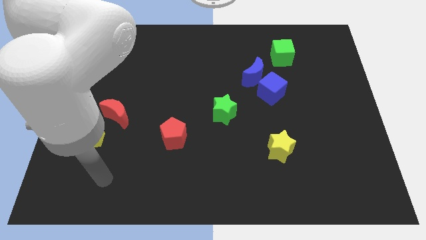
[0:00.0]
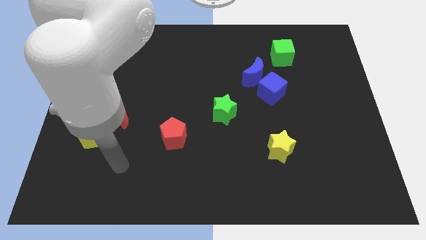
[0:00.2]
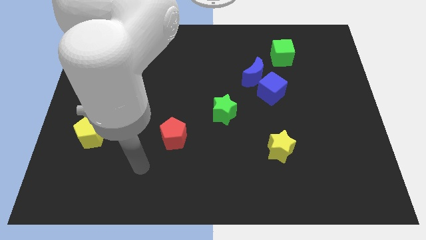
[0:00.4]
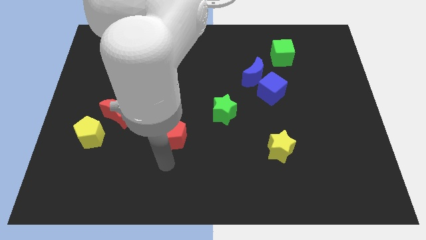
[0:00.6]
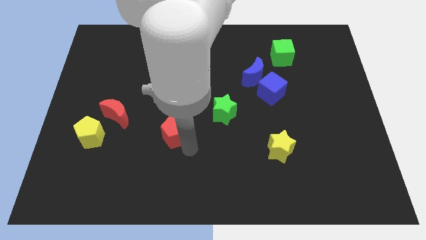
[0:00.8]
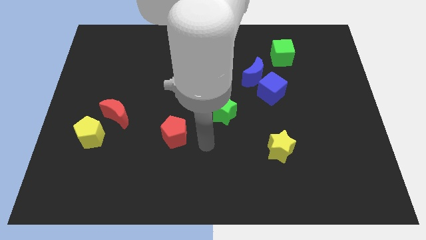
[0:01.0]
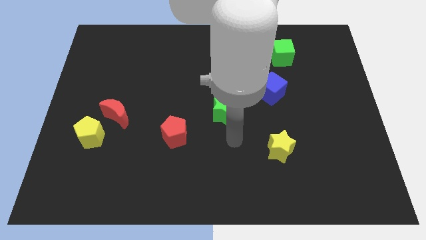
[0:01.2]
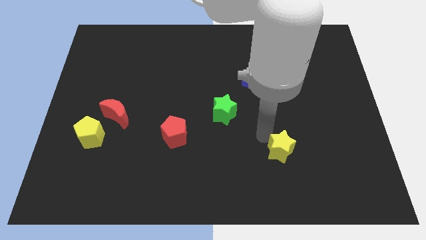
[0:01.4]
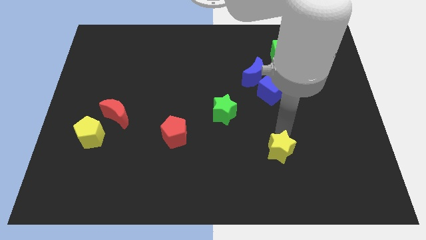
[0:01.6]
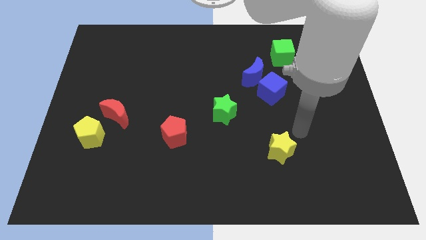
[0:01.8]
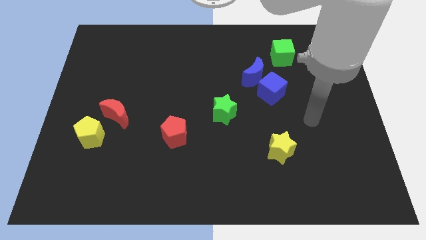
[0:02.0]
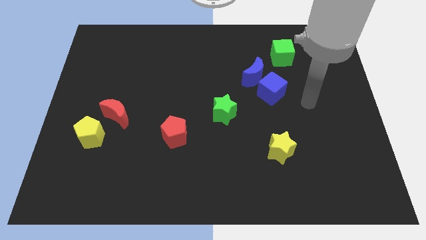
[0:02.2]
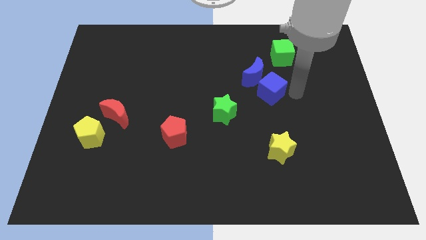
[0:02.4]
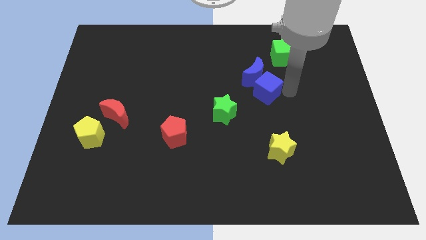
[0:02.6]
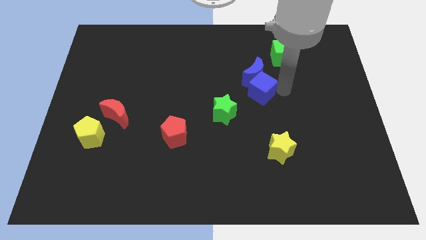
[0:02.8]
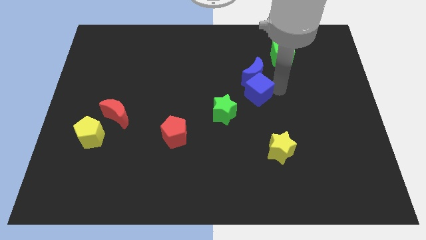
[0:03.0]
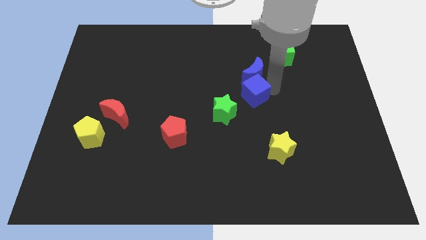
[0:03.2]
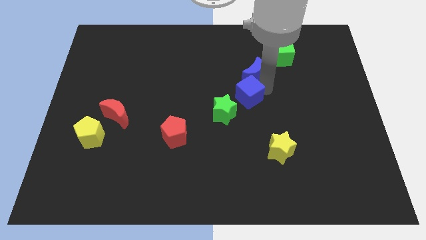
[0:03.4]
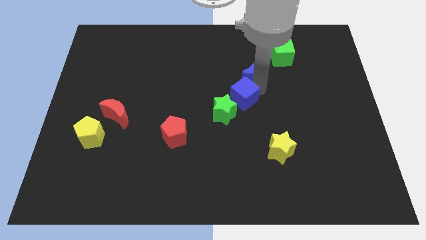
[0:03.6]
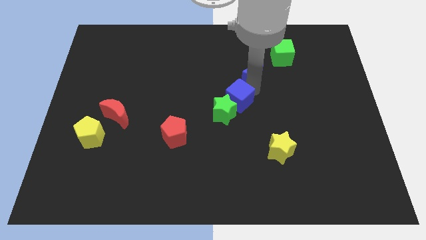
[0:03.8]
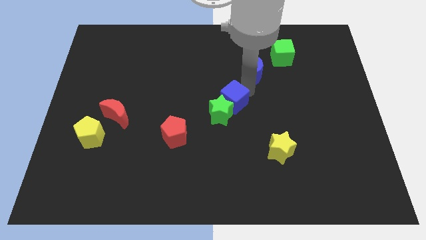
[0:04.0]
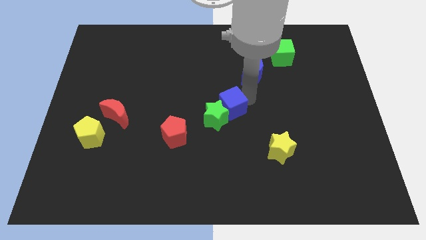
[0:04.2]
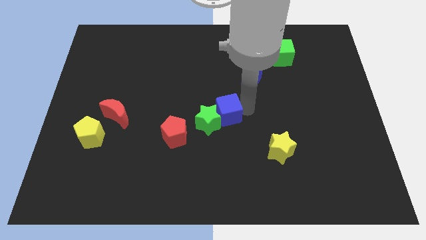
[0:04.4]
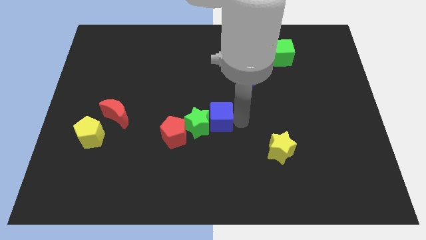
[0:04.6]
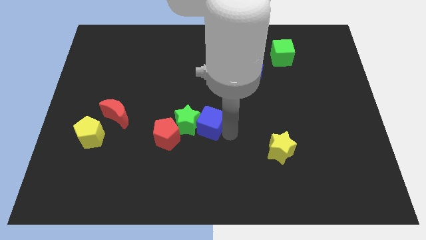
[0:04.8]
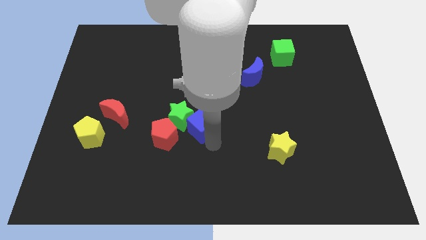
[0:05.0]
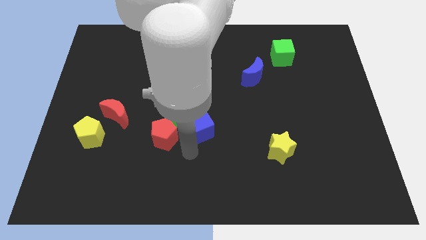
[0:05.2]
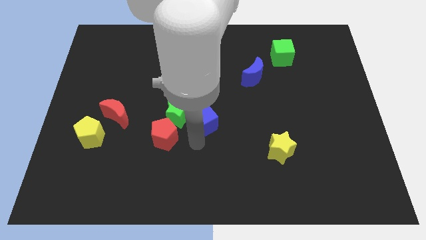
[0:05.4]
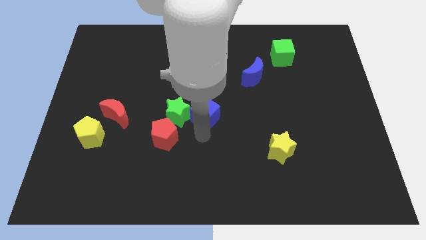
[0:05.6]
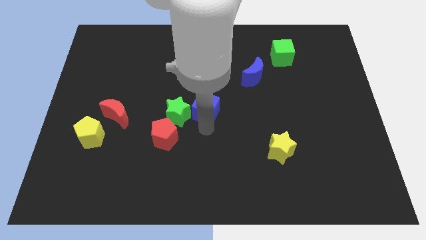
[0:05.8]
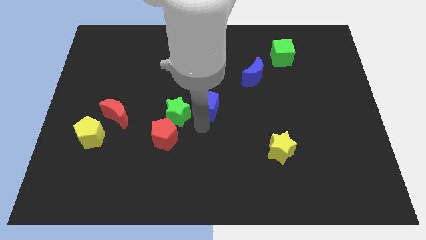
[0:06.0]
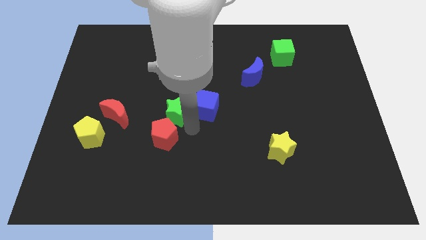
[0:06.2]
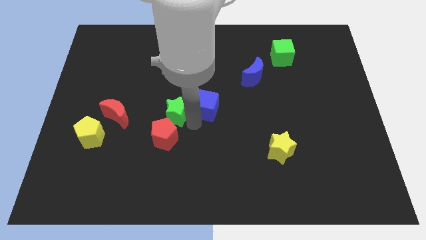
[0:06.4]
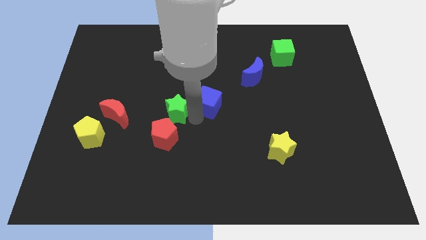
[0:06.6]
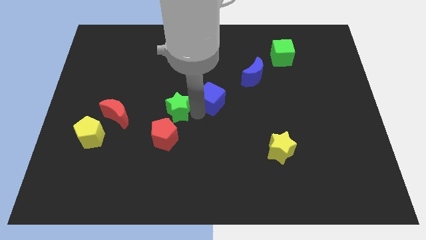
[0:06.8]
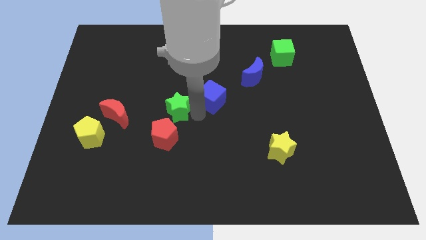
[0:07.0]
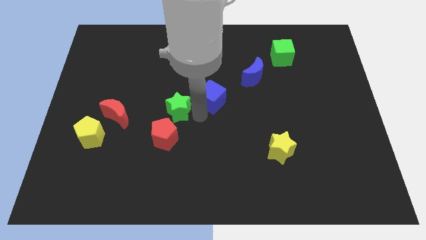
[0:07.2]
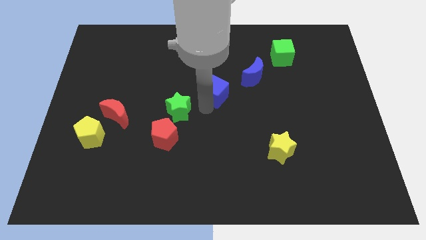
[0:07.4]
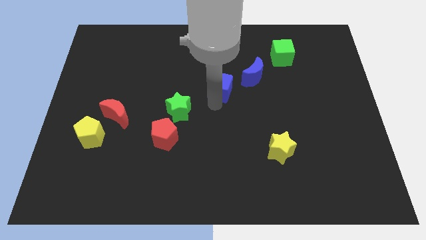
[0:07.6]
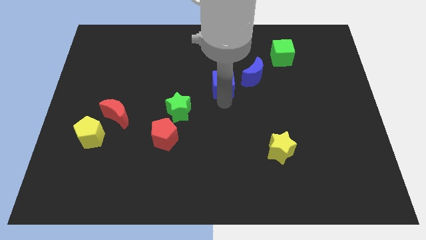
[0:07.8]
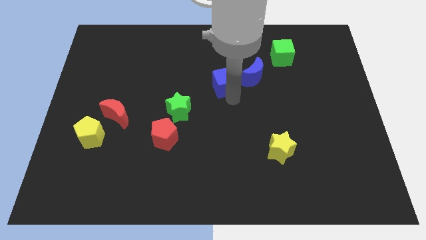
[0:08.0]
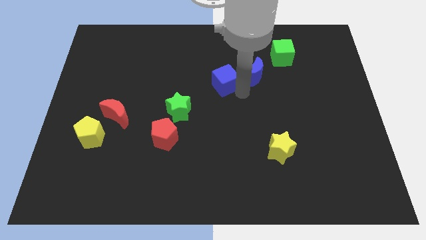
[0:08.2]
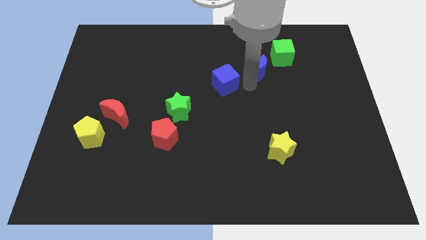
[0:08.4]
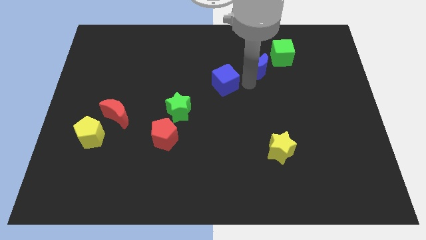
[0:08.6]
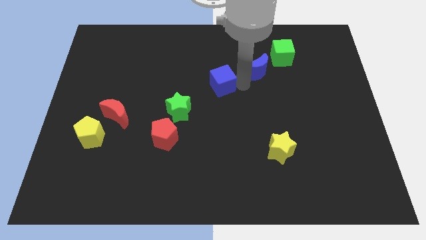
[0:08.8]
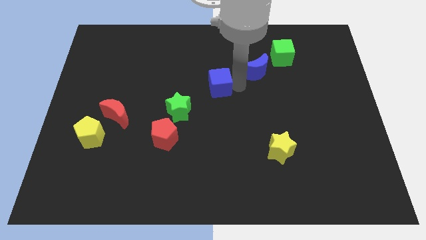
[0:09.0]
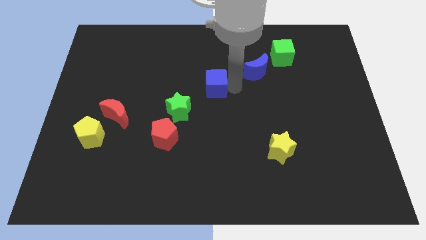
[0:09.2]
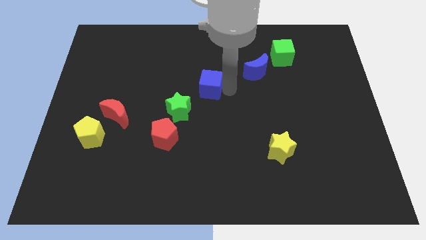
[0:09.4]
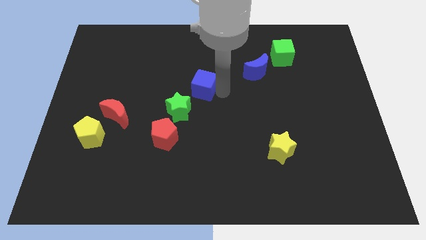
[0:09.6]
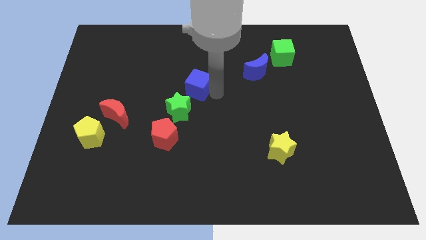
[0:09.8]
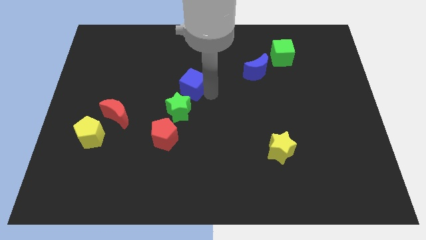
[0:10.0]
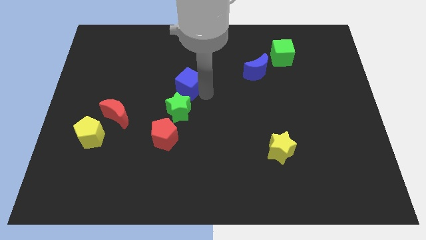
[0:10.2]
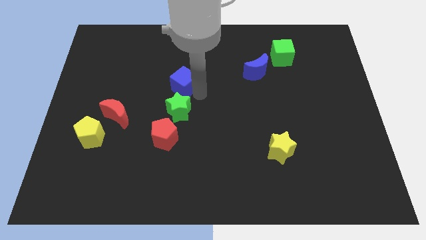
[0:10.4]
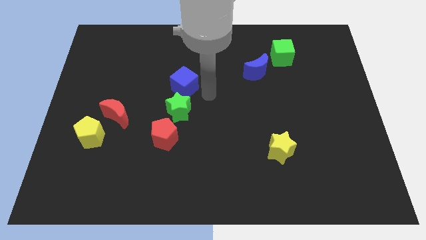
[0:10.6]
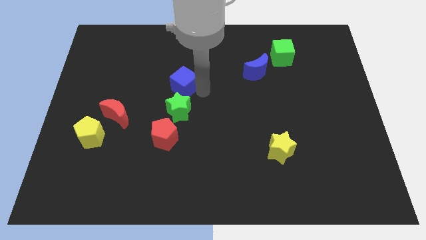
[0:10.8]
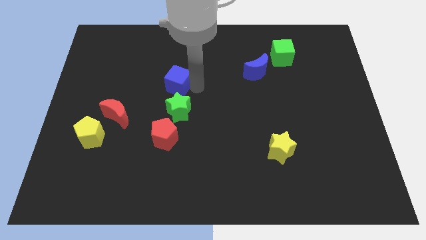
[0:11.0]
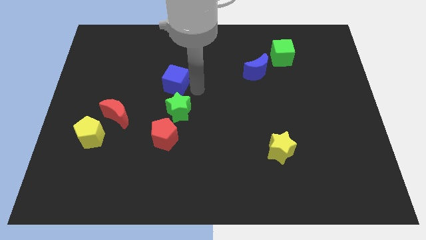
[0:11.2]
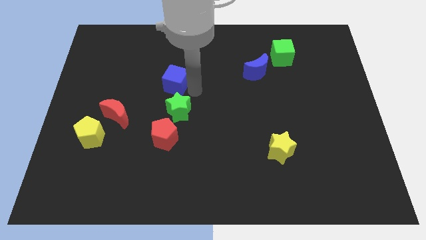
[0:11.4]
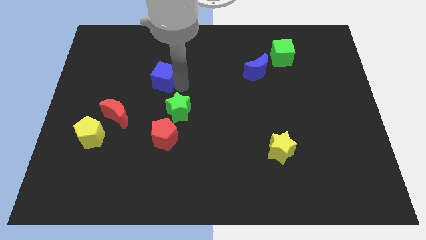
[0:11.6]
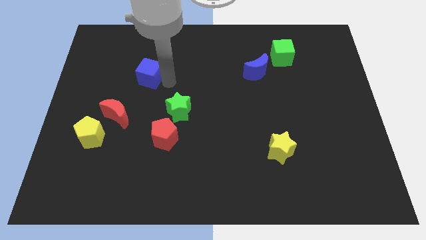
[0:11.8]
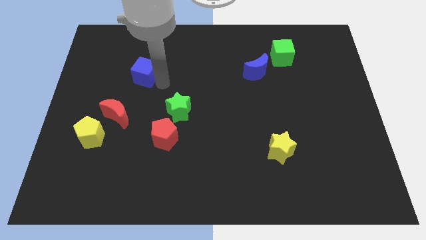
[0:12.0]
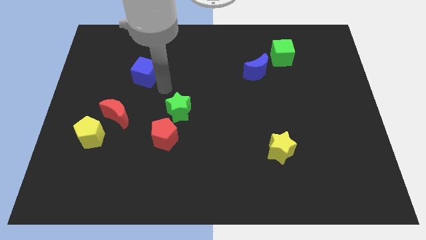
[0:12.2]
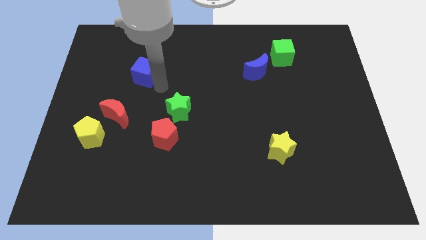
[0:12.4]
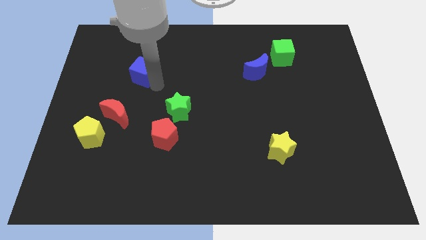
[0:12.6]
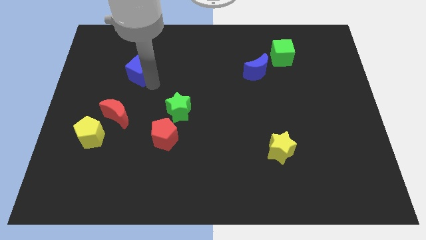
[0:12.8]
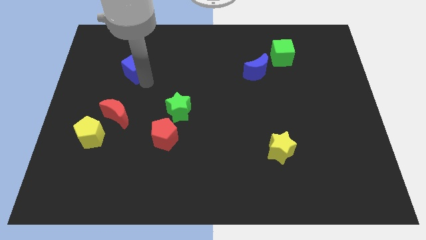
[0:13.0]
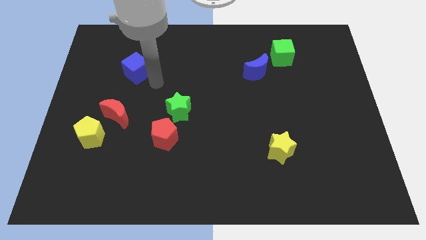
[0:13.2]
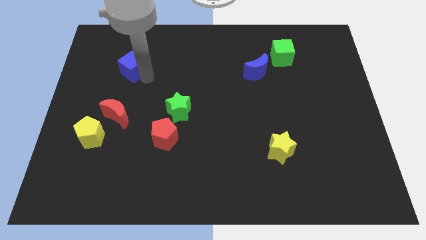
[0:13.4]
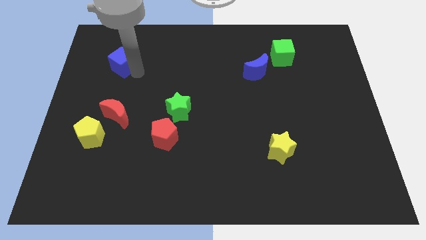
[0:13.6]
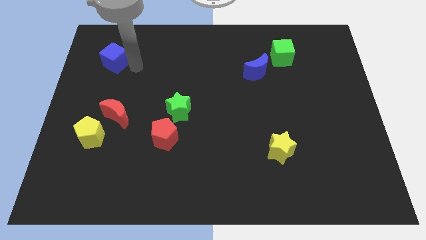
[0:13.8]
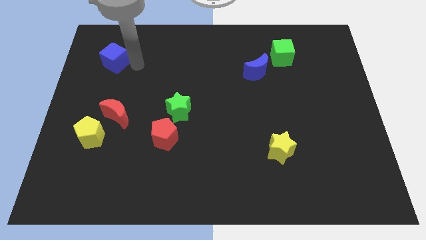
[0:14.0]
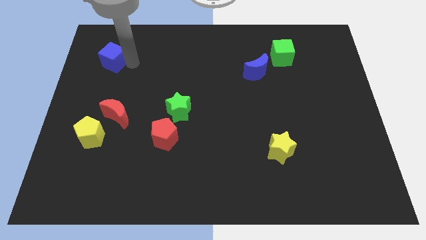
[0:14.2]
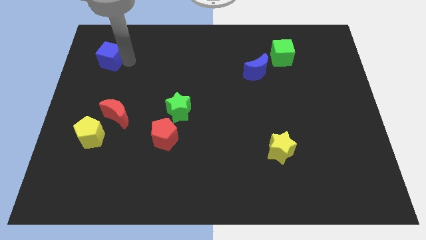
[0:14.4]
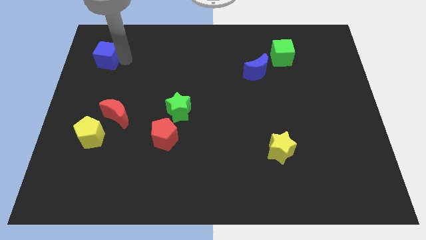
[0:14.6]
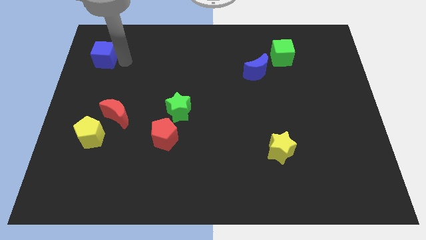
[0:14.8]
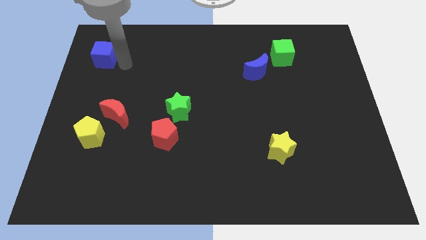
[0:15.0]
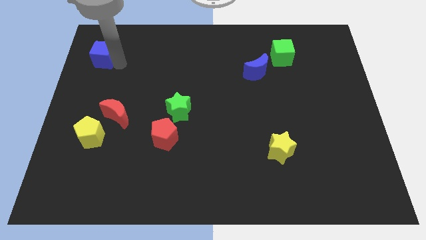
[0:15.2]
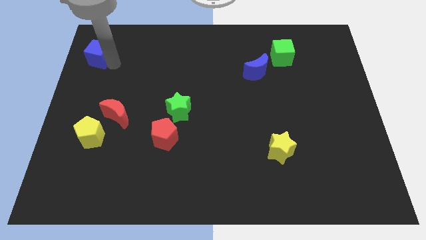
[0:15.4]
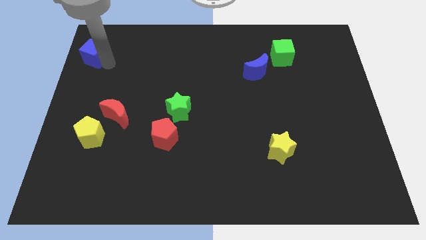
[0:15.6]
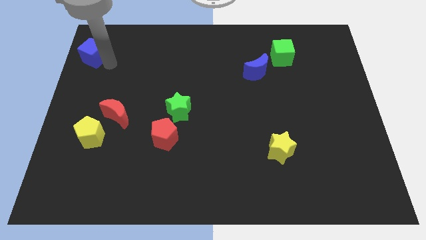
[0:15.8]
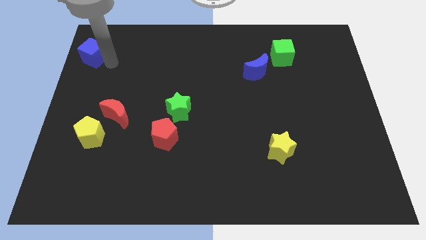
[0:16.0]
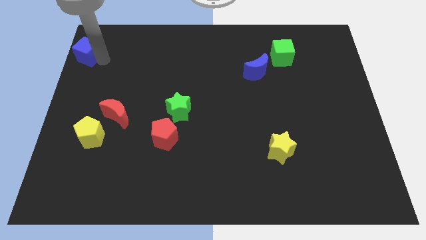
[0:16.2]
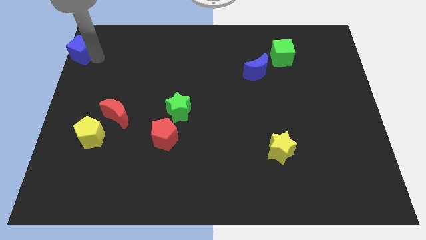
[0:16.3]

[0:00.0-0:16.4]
push the blue cube to the top left of the board
